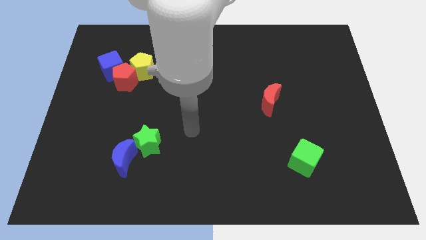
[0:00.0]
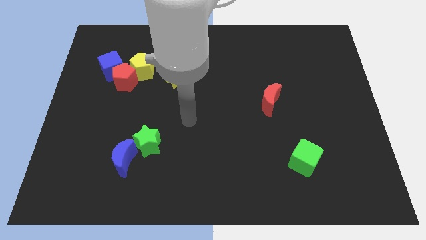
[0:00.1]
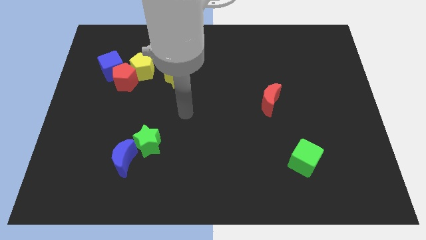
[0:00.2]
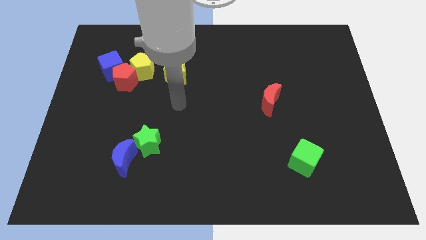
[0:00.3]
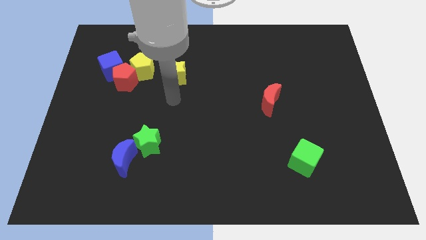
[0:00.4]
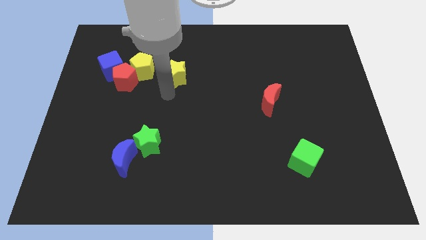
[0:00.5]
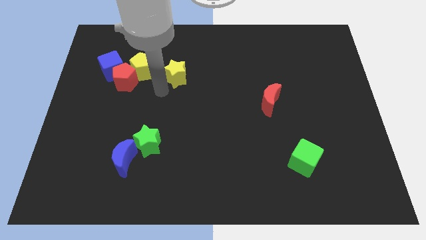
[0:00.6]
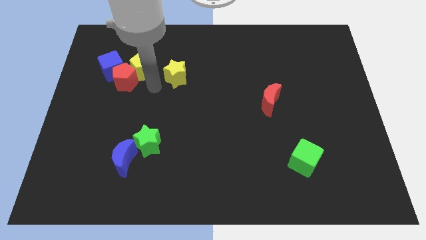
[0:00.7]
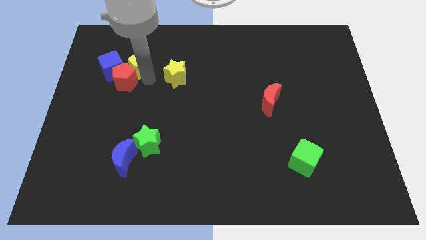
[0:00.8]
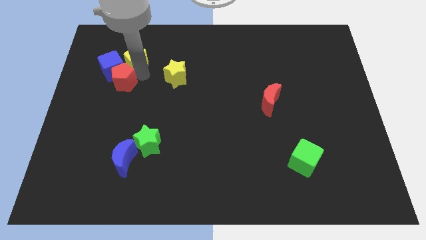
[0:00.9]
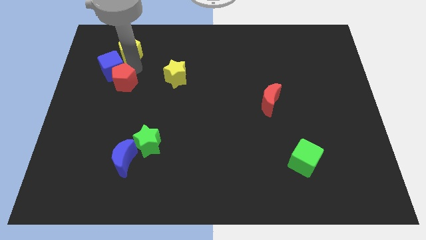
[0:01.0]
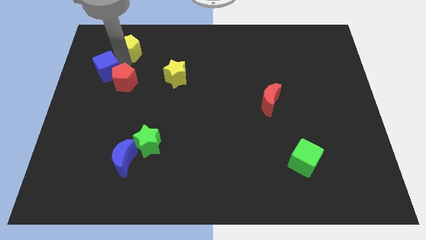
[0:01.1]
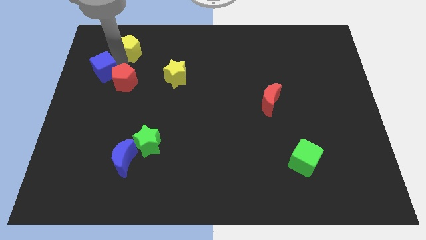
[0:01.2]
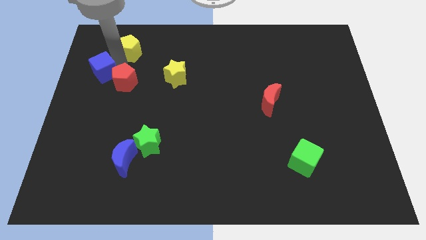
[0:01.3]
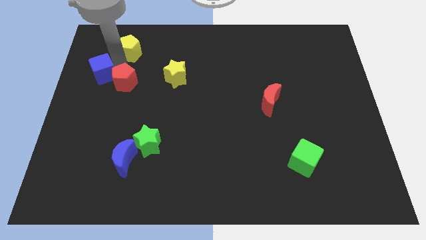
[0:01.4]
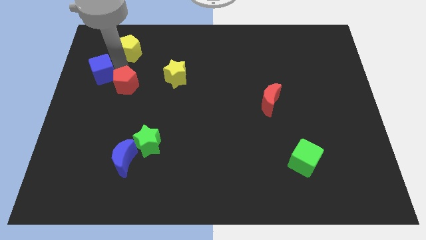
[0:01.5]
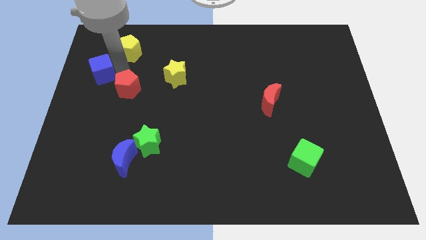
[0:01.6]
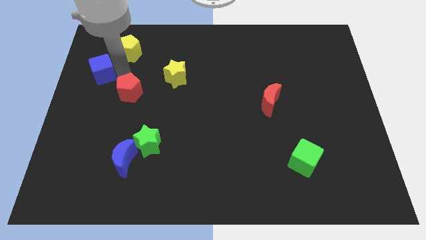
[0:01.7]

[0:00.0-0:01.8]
separate the red pentagon from the blue cube and yellow pentagon

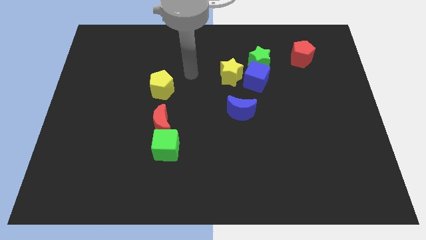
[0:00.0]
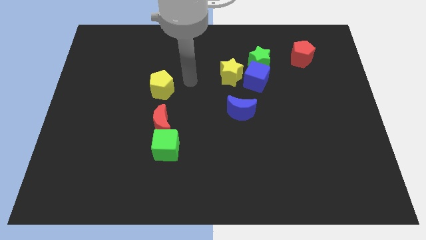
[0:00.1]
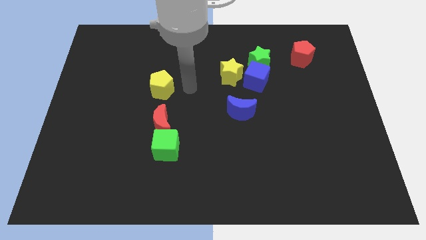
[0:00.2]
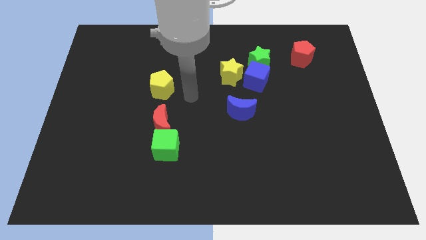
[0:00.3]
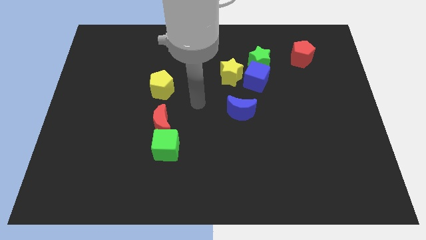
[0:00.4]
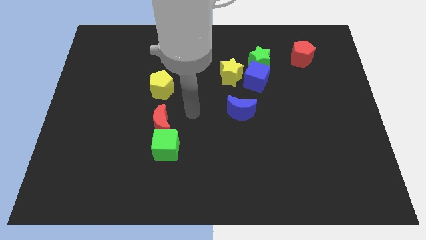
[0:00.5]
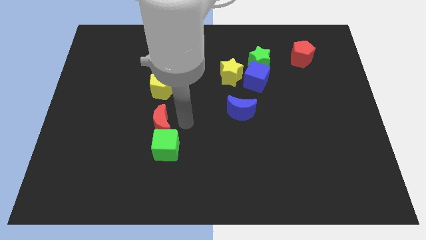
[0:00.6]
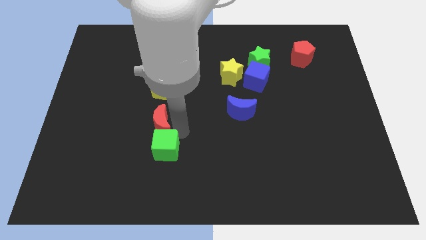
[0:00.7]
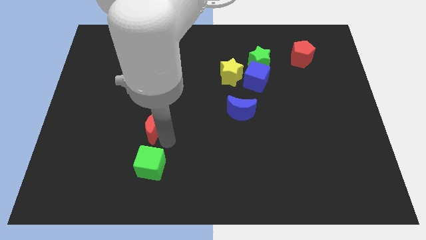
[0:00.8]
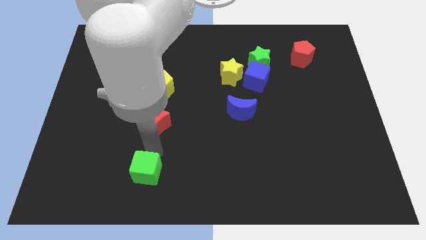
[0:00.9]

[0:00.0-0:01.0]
separate the red moon from the green cube

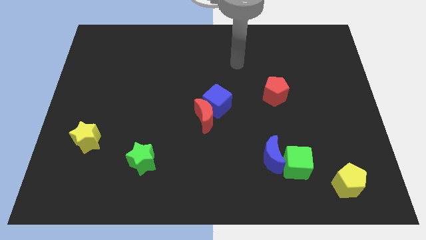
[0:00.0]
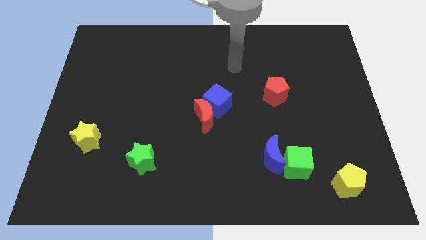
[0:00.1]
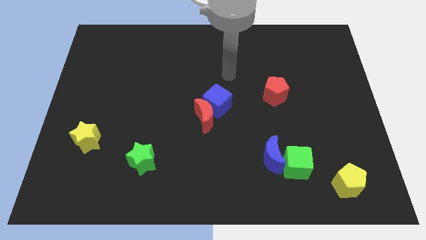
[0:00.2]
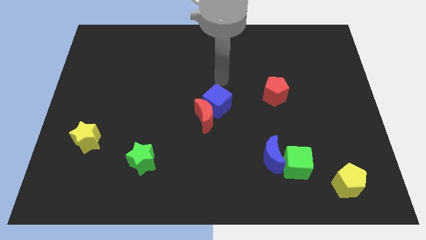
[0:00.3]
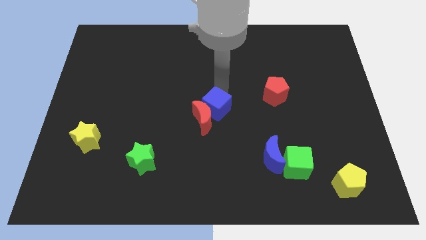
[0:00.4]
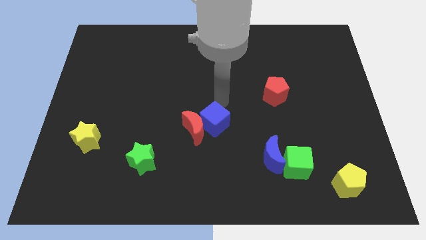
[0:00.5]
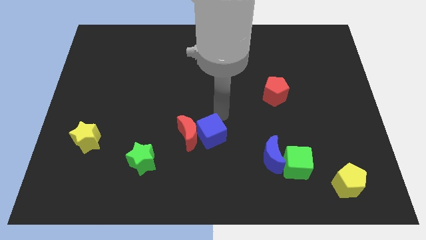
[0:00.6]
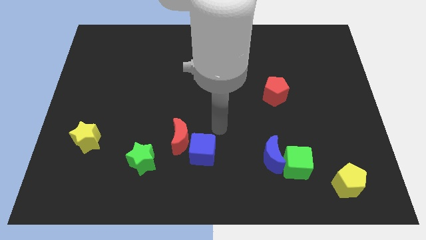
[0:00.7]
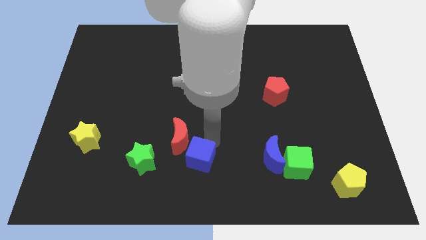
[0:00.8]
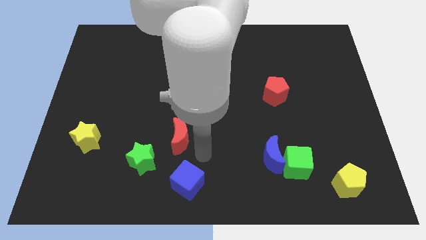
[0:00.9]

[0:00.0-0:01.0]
move the red moon away from the blue cube

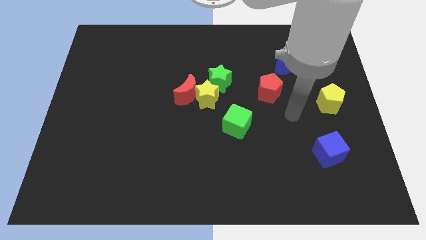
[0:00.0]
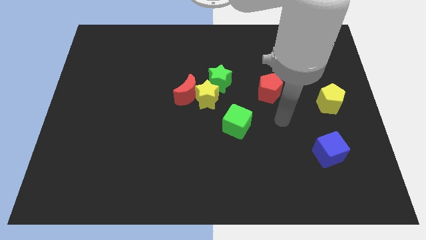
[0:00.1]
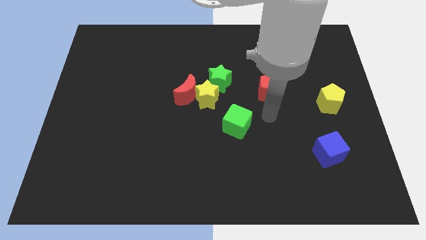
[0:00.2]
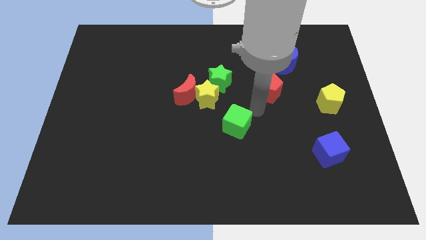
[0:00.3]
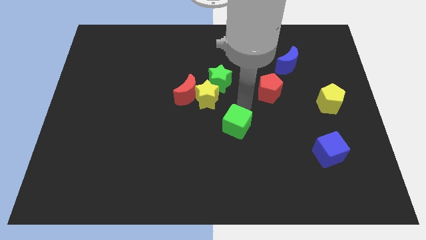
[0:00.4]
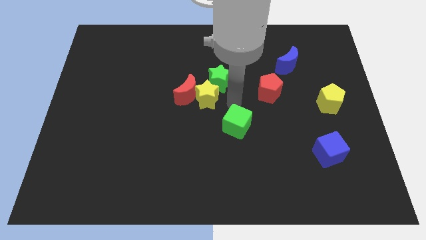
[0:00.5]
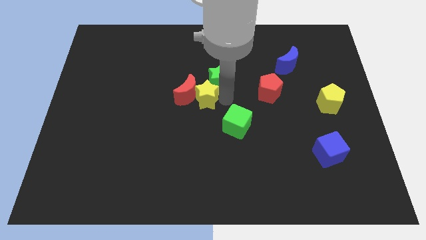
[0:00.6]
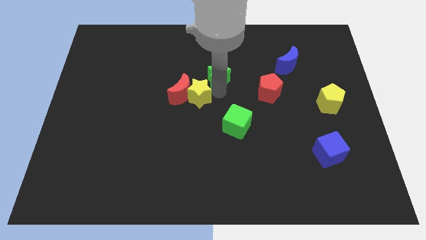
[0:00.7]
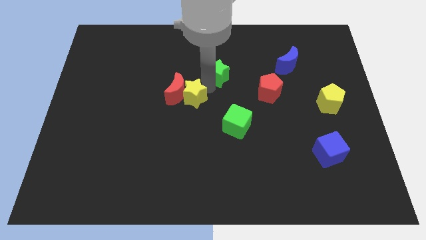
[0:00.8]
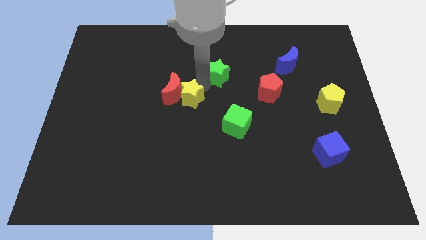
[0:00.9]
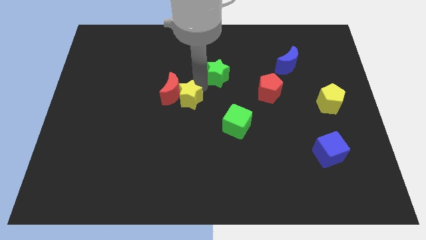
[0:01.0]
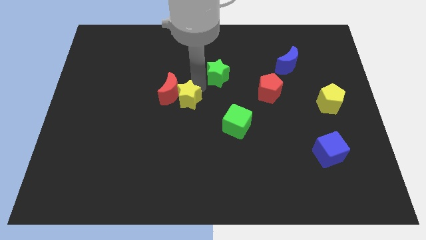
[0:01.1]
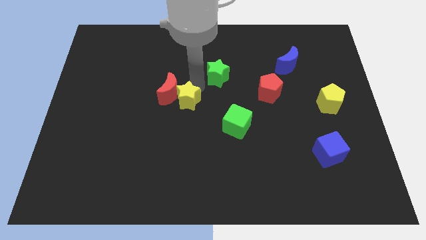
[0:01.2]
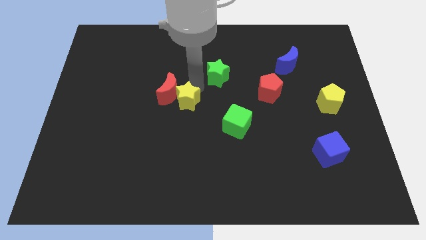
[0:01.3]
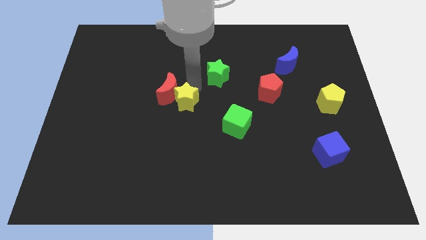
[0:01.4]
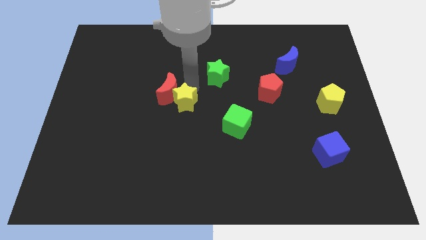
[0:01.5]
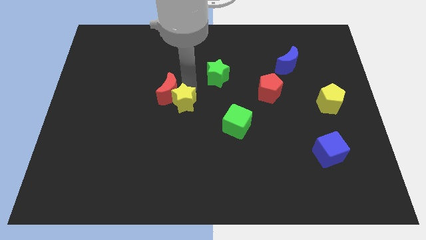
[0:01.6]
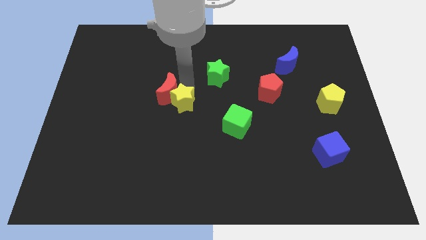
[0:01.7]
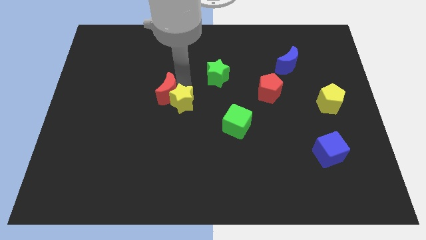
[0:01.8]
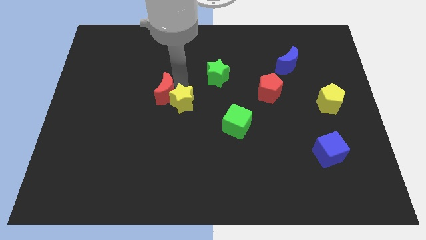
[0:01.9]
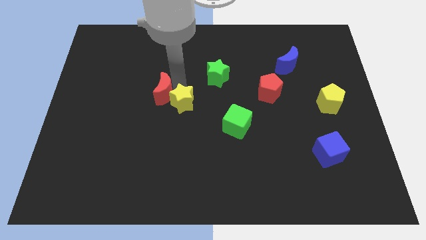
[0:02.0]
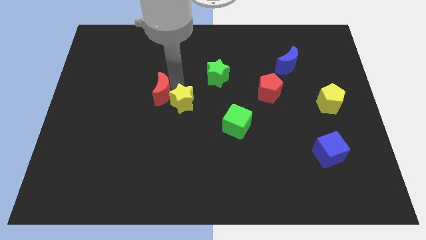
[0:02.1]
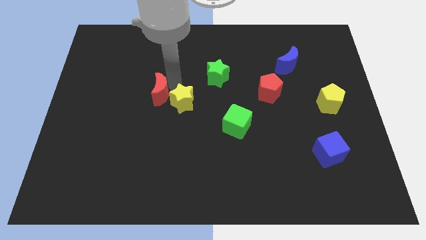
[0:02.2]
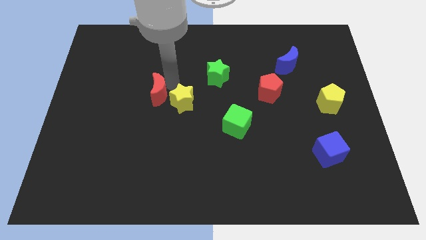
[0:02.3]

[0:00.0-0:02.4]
pull the red moon apart from the yellow star and green star

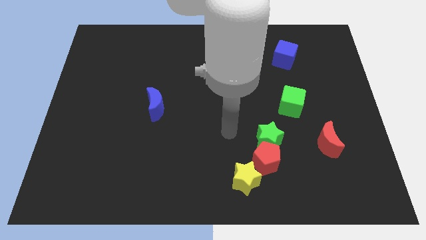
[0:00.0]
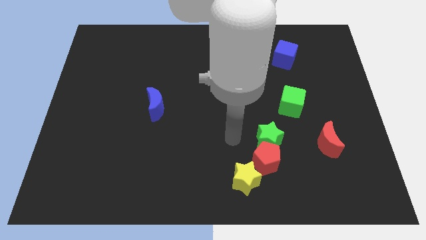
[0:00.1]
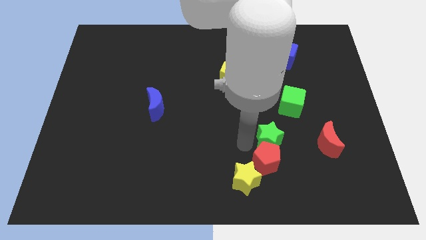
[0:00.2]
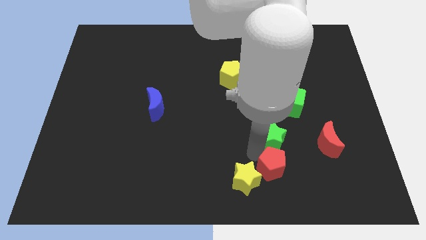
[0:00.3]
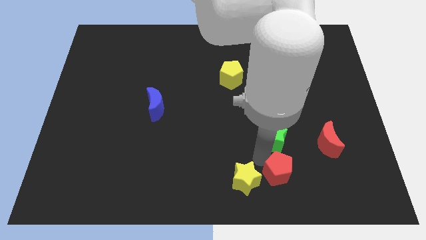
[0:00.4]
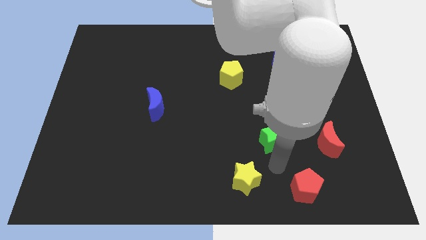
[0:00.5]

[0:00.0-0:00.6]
move the green star away from the red pentagon

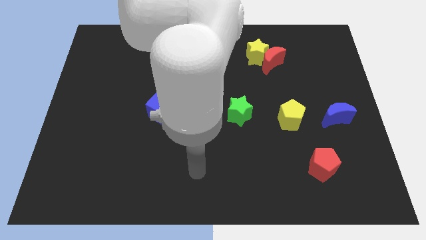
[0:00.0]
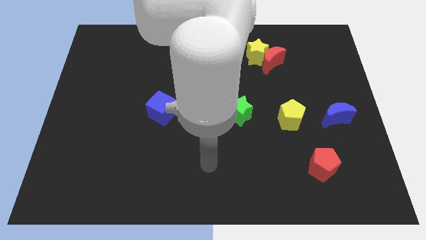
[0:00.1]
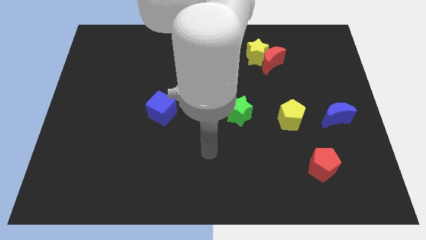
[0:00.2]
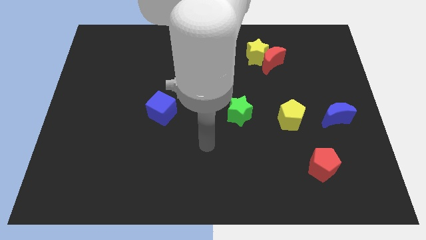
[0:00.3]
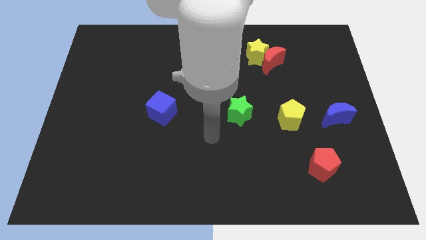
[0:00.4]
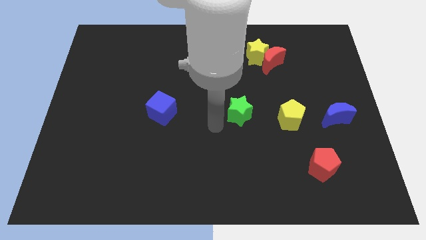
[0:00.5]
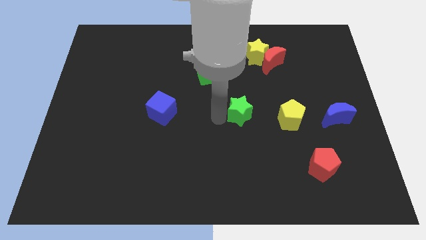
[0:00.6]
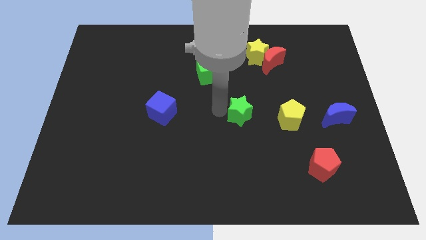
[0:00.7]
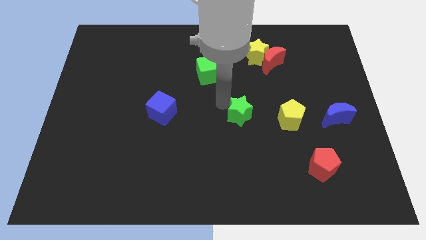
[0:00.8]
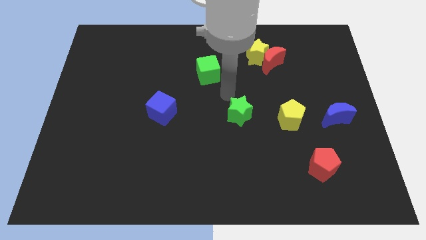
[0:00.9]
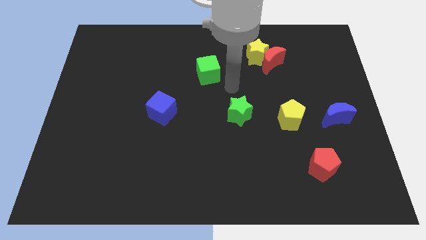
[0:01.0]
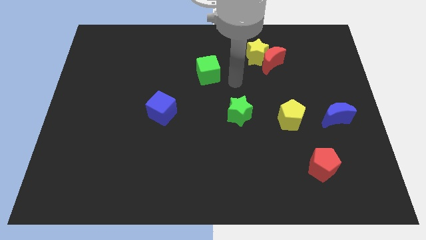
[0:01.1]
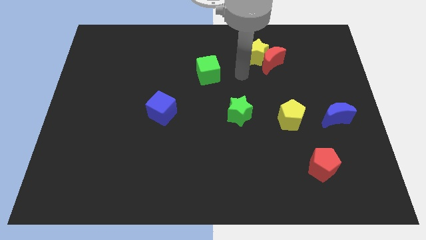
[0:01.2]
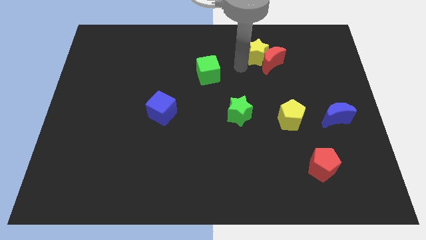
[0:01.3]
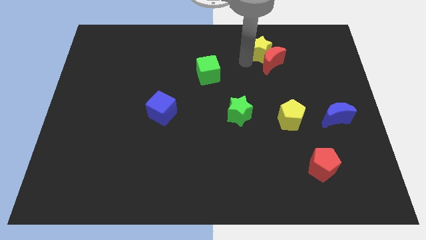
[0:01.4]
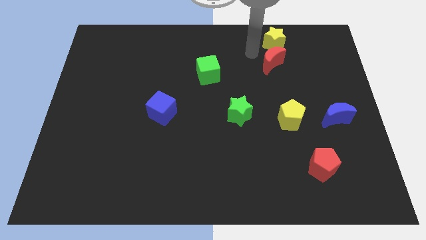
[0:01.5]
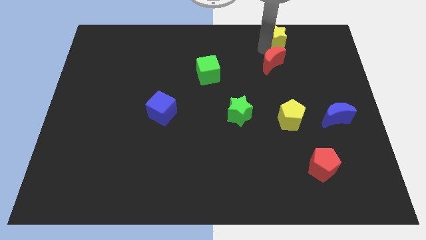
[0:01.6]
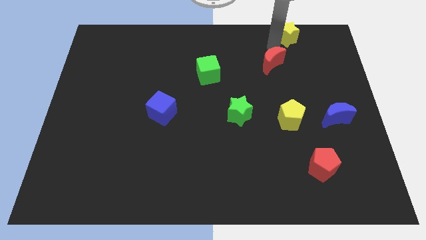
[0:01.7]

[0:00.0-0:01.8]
separate the red moon from the yellow star

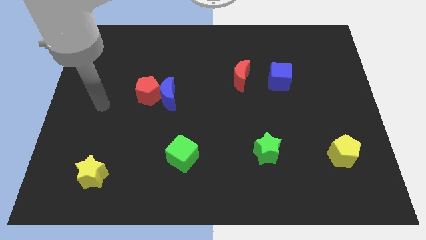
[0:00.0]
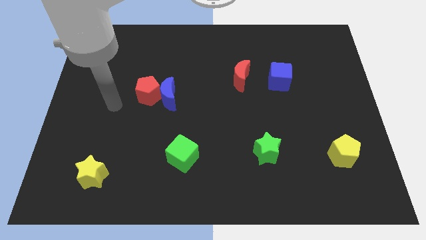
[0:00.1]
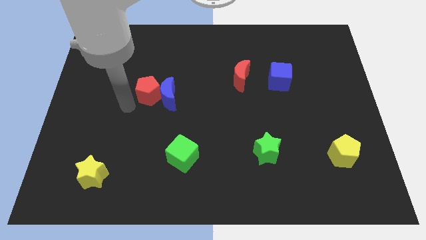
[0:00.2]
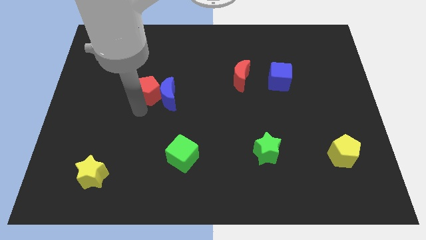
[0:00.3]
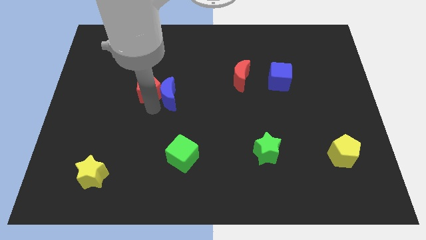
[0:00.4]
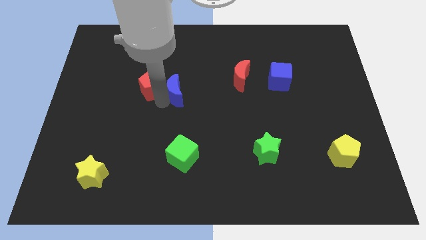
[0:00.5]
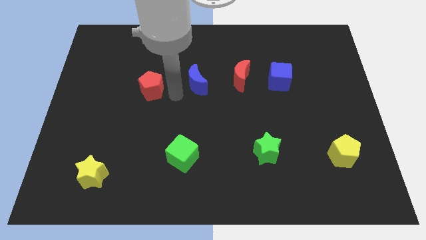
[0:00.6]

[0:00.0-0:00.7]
pull the red pentagon apart from the blue moon
